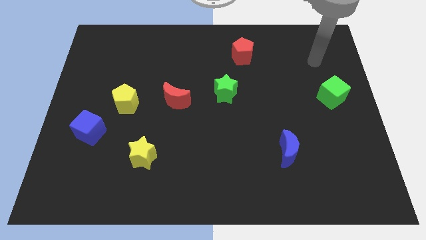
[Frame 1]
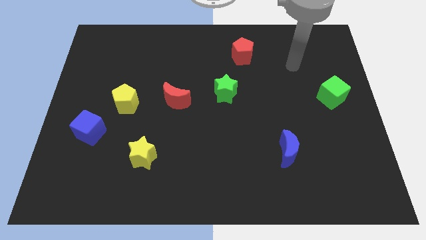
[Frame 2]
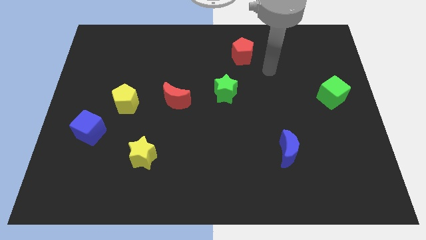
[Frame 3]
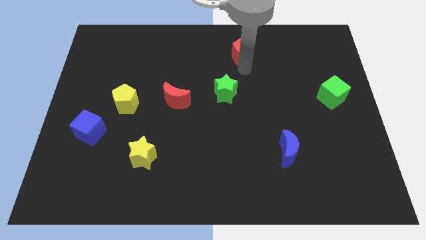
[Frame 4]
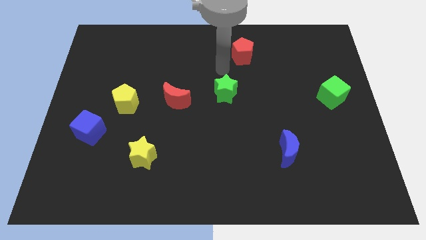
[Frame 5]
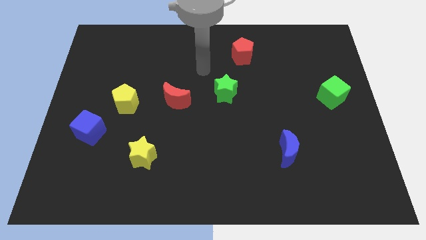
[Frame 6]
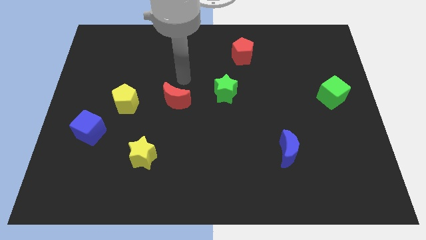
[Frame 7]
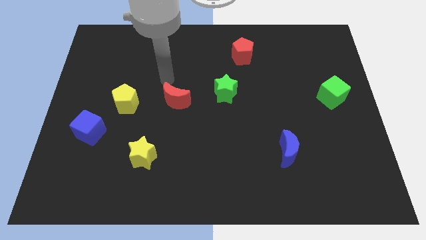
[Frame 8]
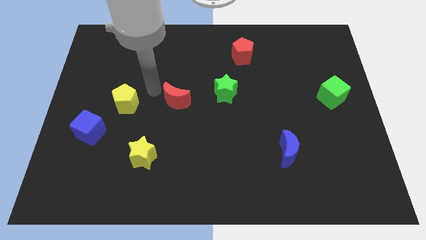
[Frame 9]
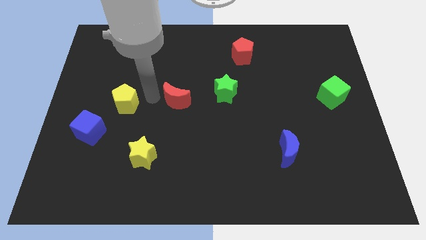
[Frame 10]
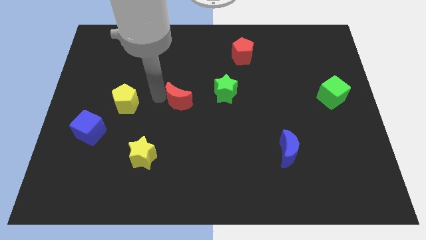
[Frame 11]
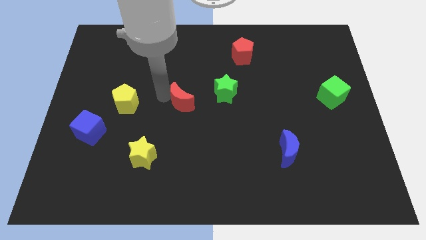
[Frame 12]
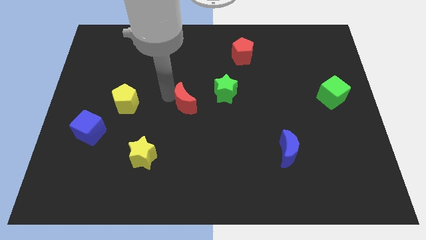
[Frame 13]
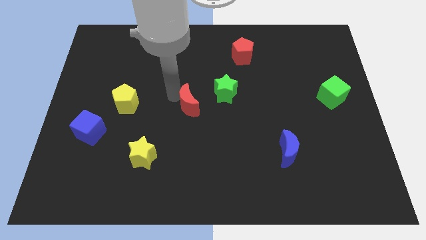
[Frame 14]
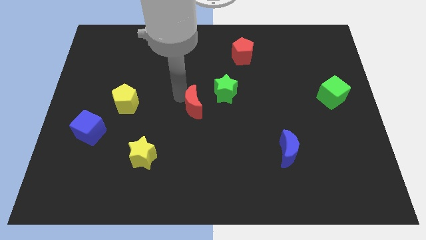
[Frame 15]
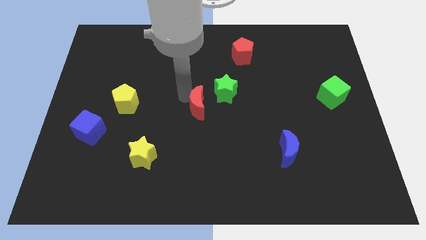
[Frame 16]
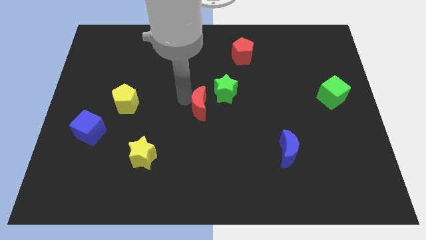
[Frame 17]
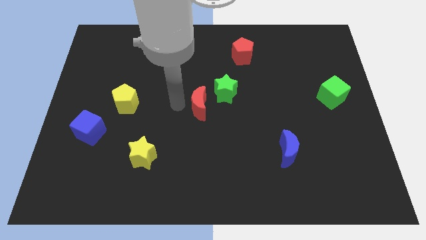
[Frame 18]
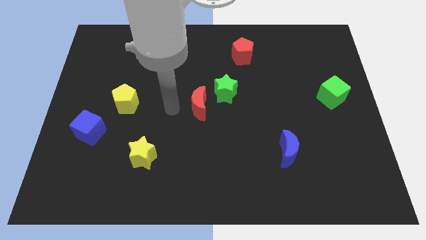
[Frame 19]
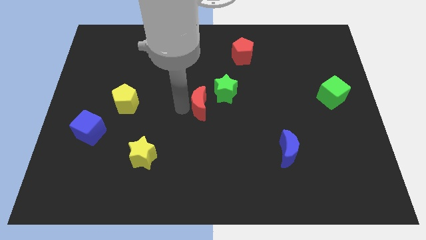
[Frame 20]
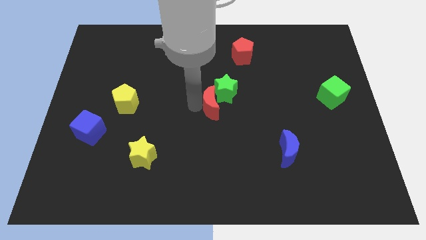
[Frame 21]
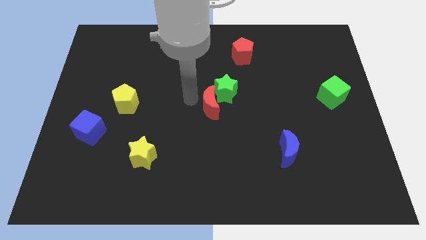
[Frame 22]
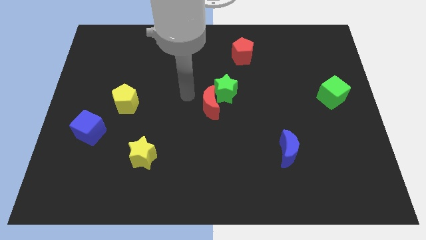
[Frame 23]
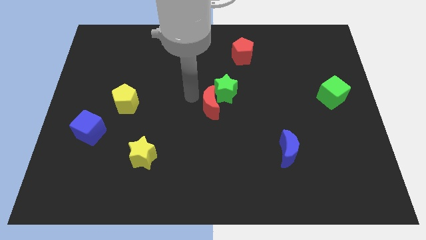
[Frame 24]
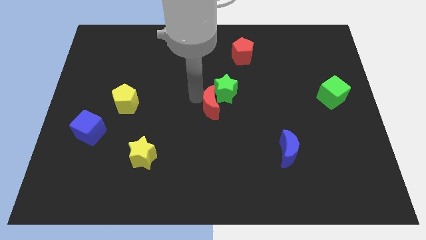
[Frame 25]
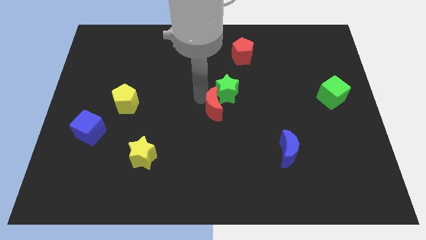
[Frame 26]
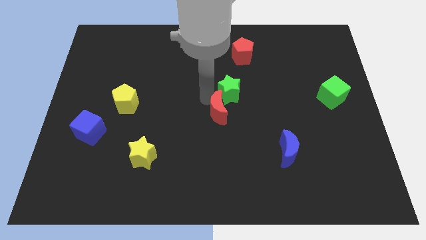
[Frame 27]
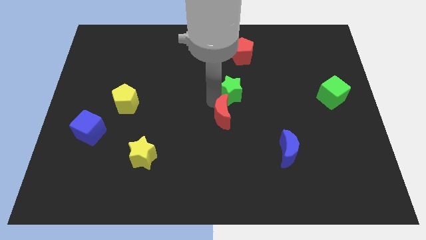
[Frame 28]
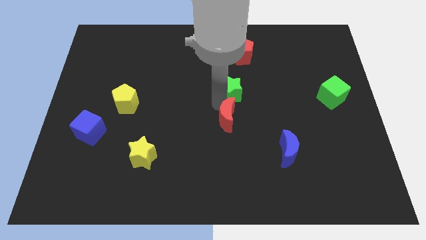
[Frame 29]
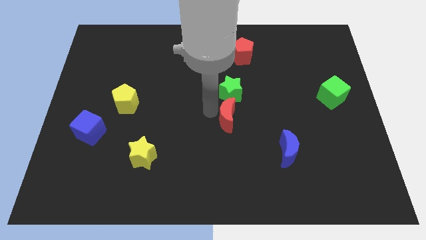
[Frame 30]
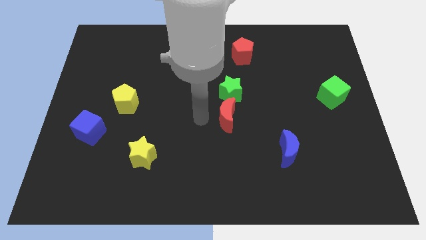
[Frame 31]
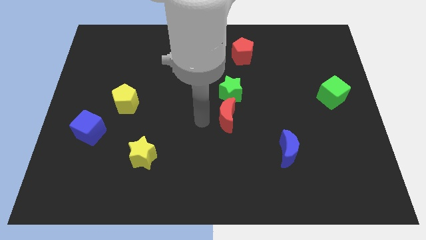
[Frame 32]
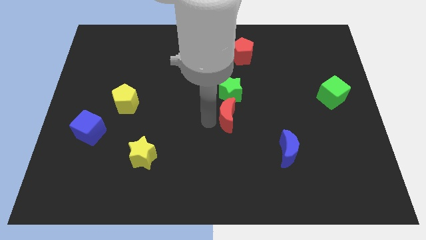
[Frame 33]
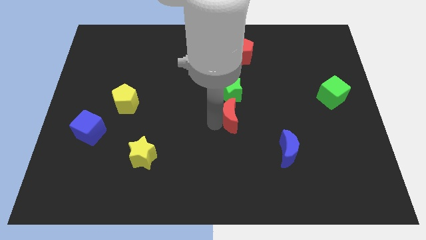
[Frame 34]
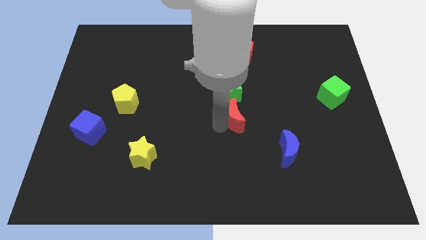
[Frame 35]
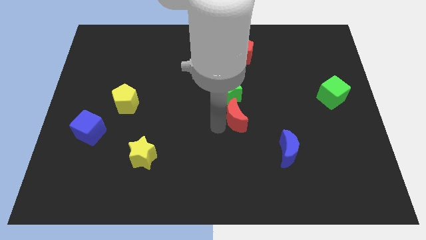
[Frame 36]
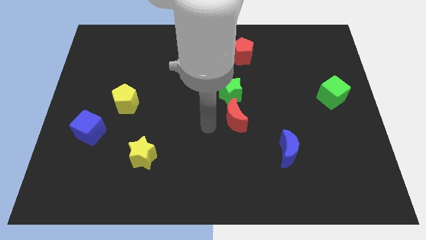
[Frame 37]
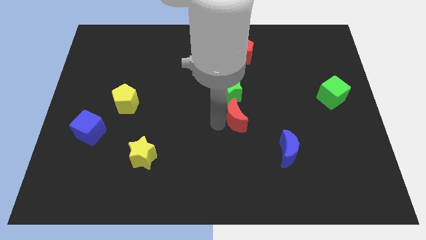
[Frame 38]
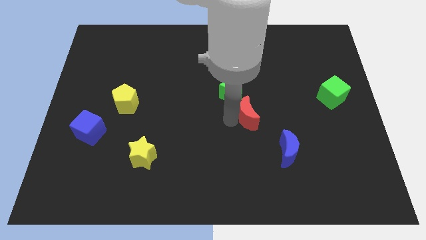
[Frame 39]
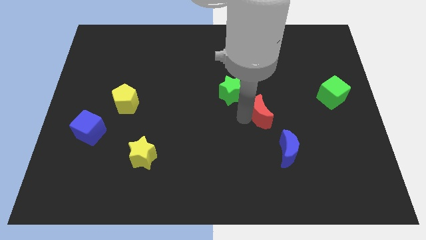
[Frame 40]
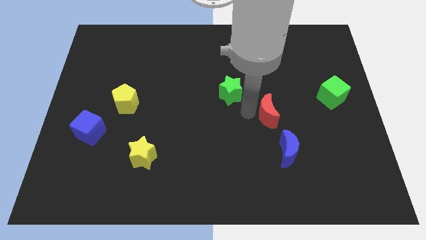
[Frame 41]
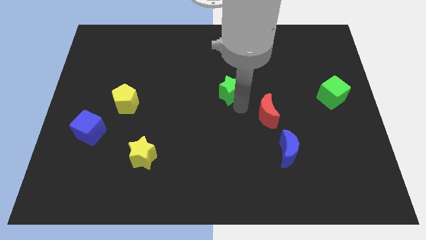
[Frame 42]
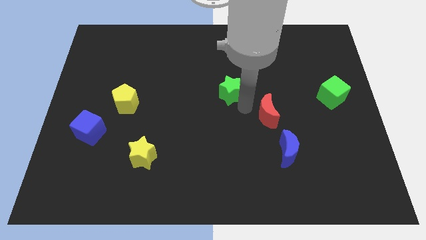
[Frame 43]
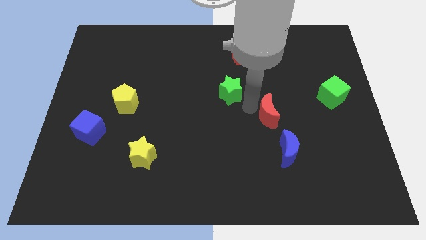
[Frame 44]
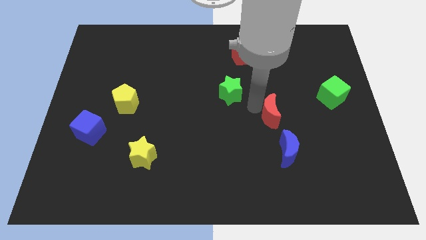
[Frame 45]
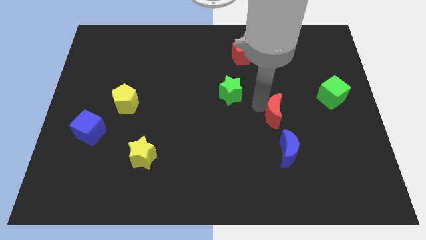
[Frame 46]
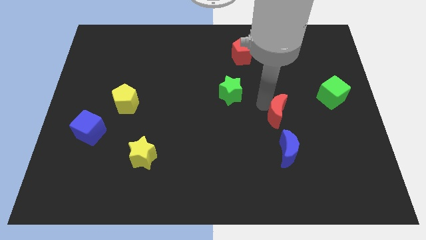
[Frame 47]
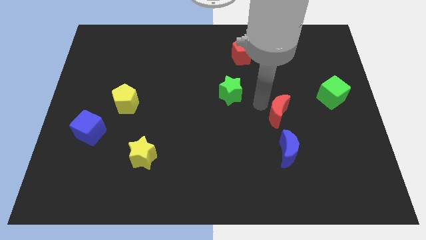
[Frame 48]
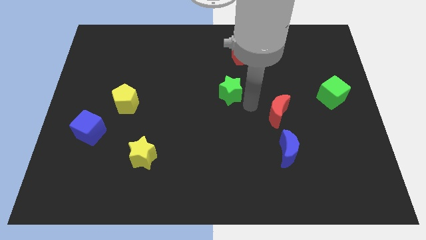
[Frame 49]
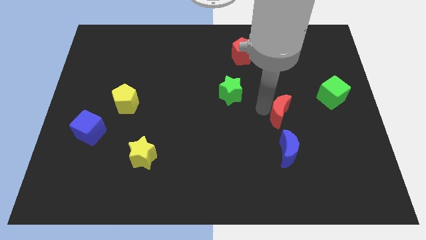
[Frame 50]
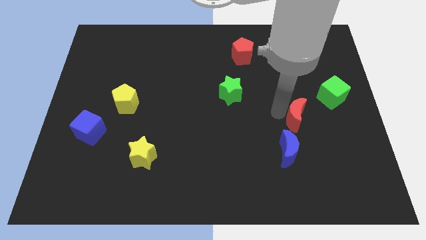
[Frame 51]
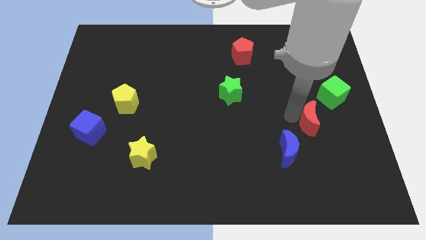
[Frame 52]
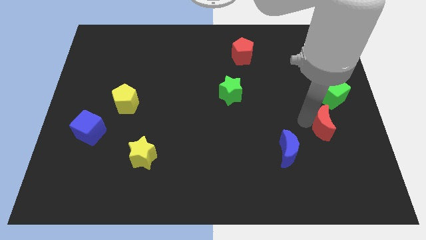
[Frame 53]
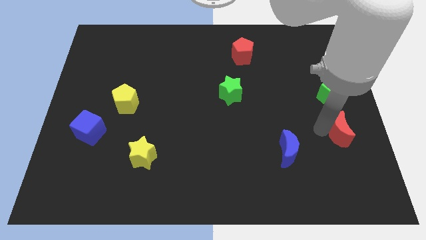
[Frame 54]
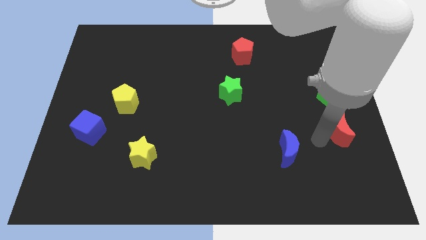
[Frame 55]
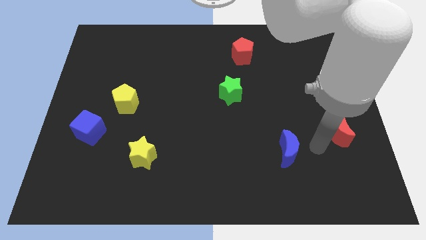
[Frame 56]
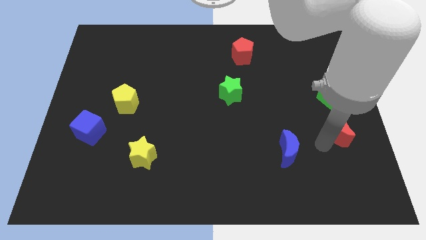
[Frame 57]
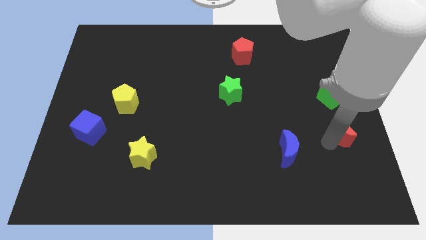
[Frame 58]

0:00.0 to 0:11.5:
push the red moon to the right side of the board
